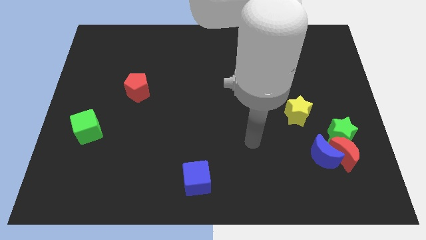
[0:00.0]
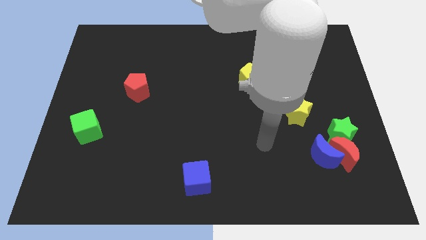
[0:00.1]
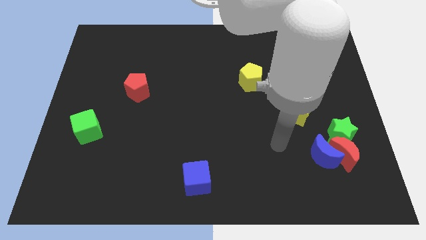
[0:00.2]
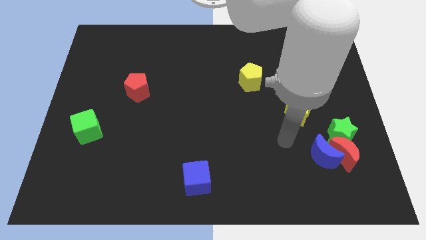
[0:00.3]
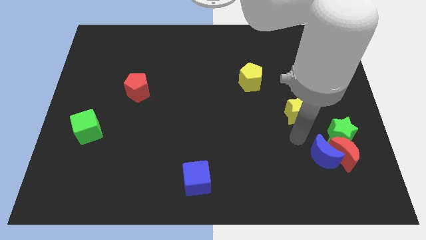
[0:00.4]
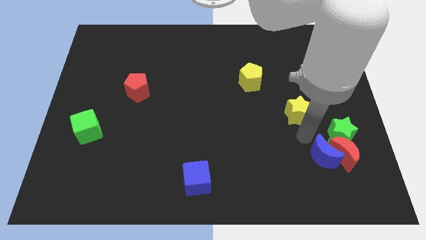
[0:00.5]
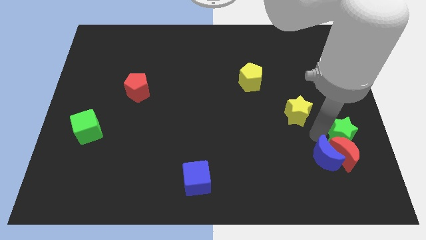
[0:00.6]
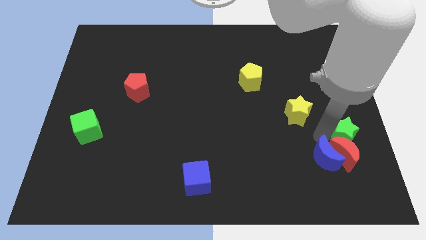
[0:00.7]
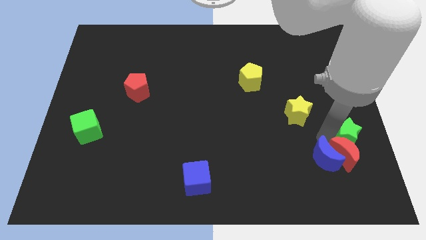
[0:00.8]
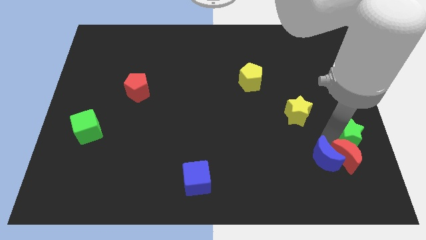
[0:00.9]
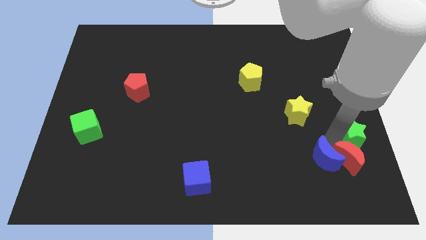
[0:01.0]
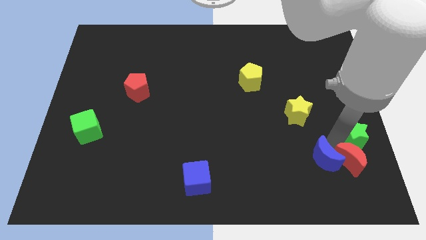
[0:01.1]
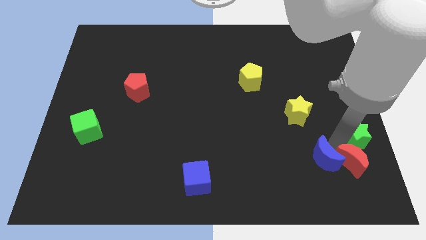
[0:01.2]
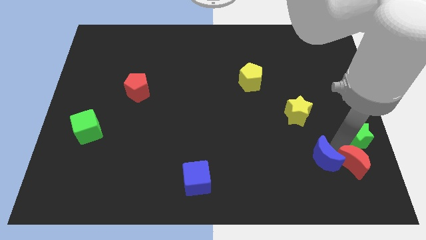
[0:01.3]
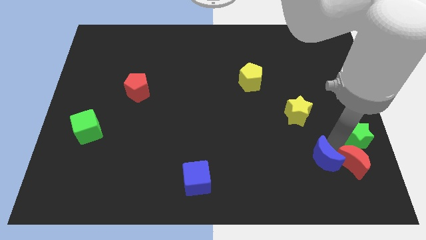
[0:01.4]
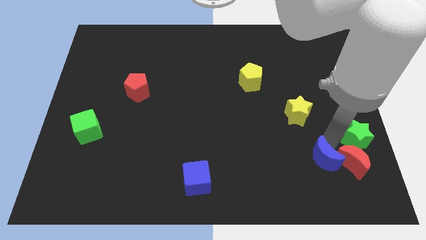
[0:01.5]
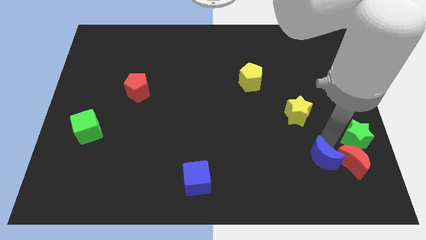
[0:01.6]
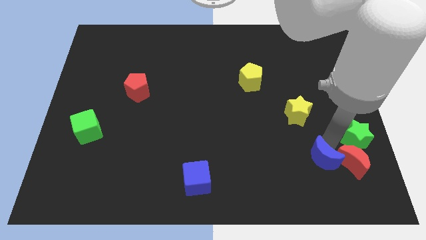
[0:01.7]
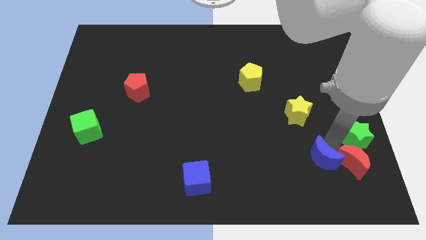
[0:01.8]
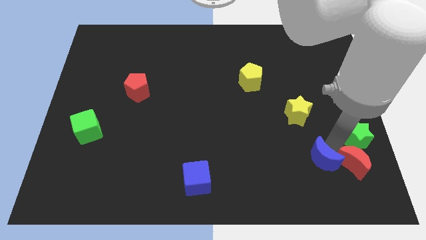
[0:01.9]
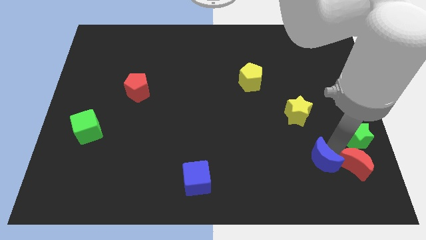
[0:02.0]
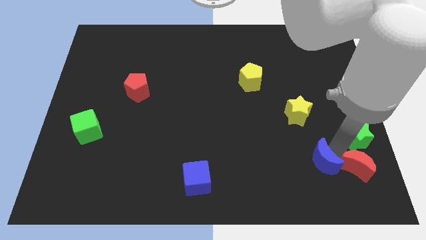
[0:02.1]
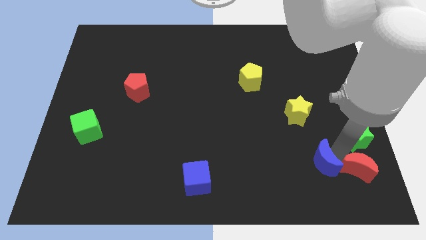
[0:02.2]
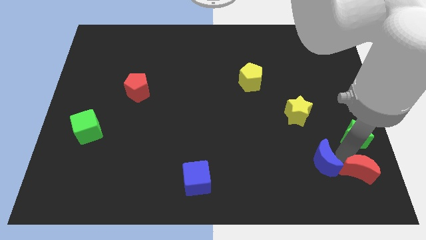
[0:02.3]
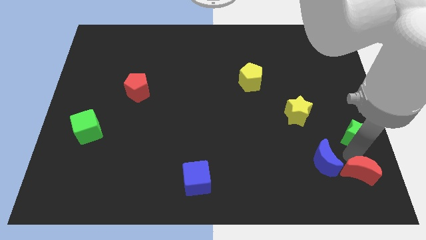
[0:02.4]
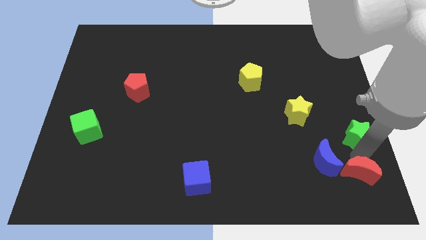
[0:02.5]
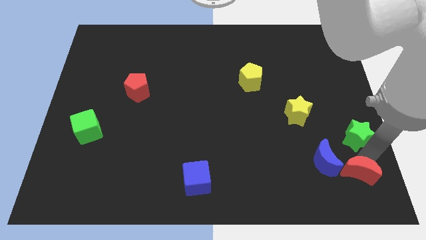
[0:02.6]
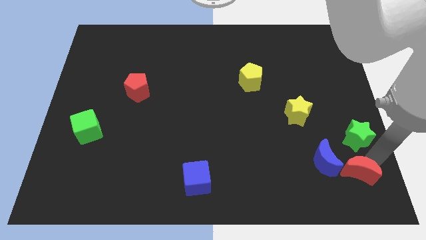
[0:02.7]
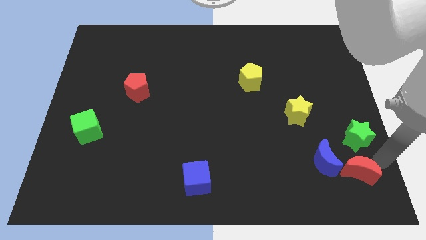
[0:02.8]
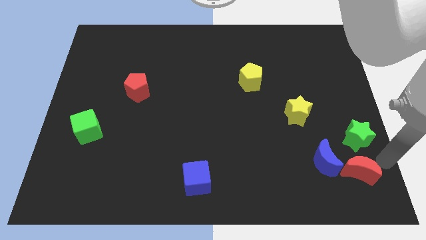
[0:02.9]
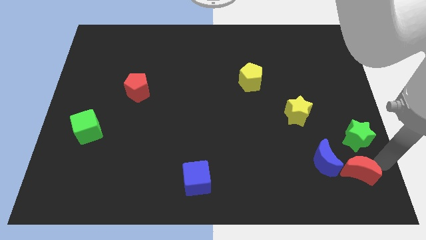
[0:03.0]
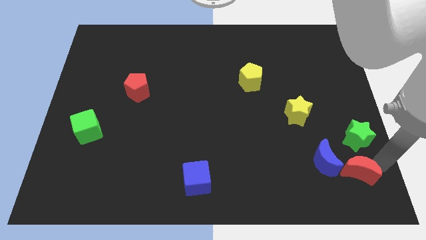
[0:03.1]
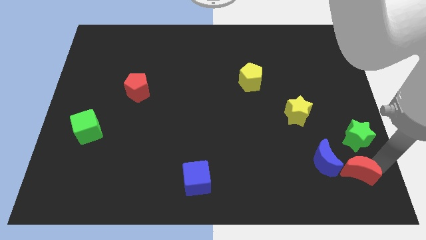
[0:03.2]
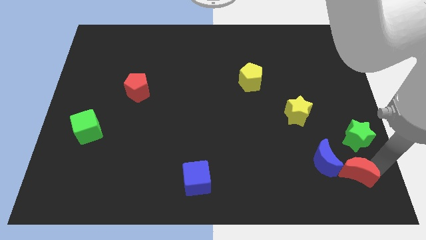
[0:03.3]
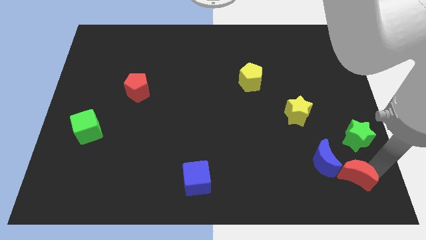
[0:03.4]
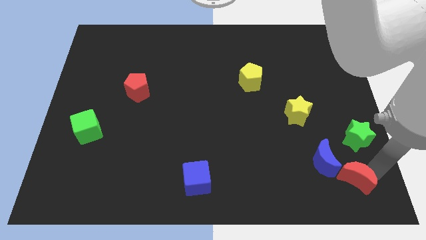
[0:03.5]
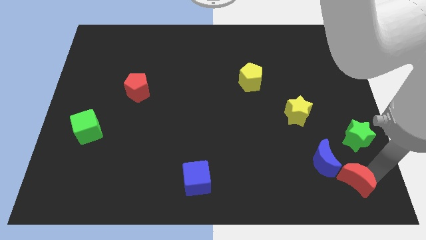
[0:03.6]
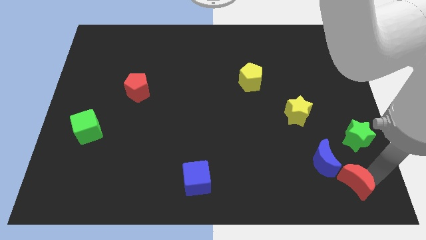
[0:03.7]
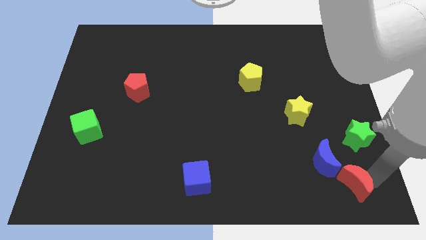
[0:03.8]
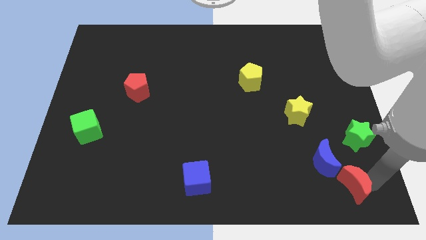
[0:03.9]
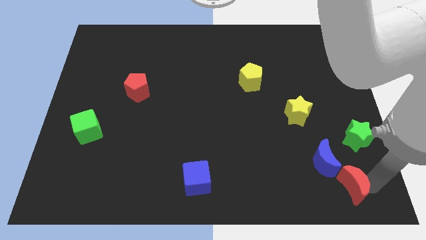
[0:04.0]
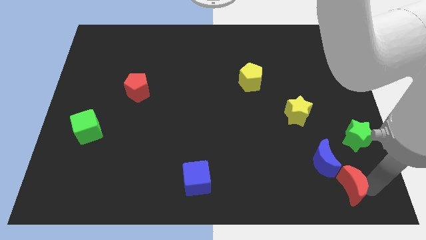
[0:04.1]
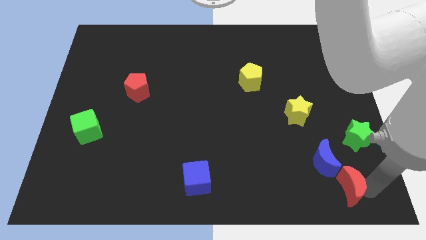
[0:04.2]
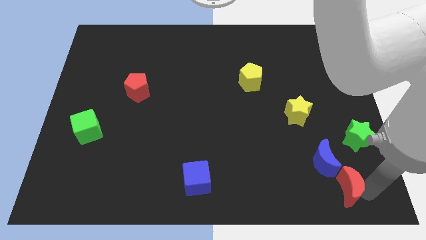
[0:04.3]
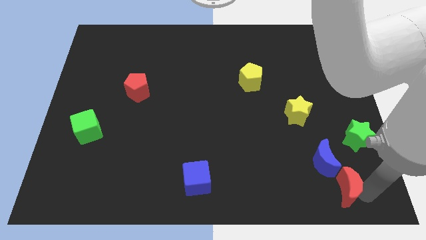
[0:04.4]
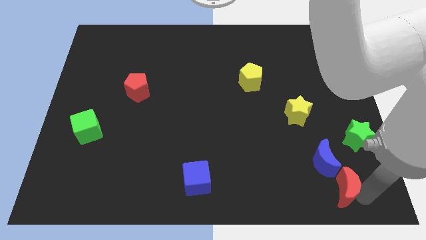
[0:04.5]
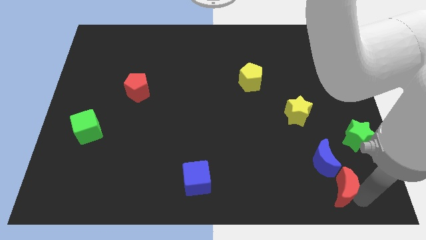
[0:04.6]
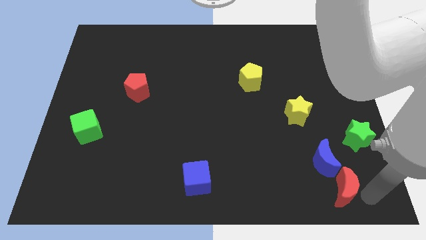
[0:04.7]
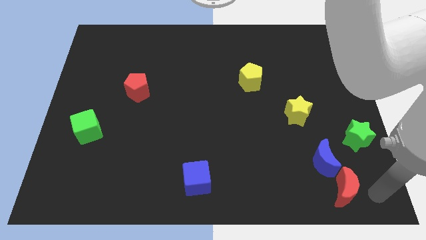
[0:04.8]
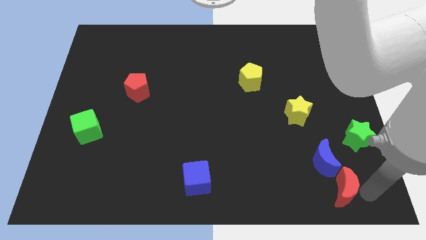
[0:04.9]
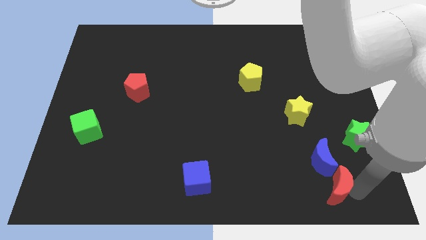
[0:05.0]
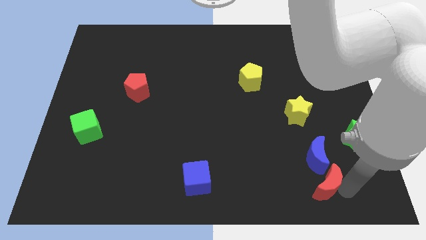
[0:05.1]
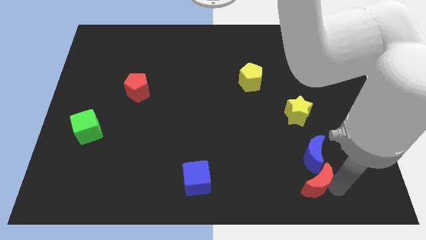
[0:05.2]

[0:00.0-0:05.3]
slide the red moon diagonally down and to the left of the blue moon

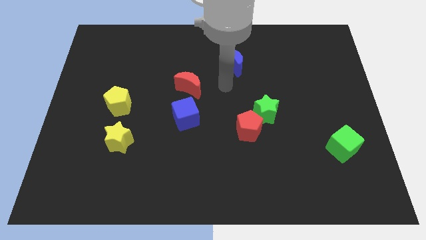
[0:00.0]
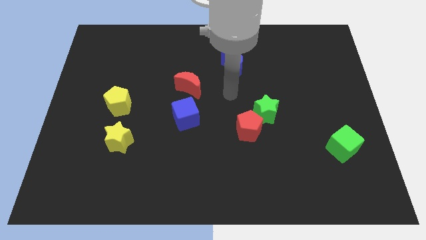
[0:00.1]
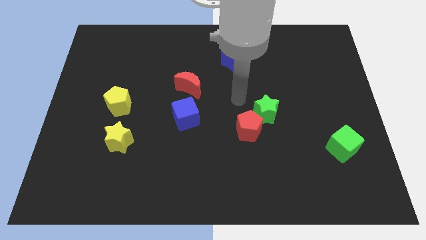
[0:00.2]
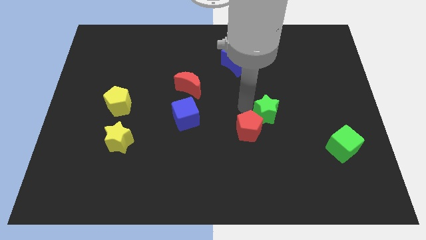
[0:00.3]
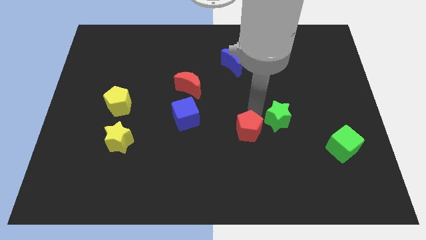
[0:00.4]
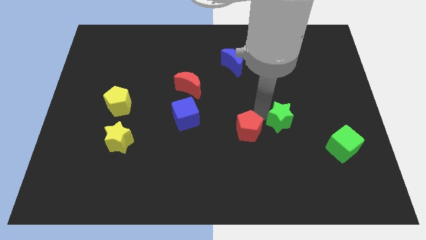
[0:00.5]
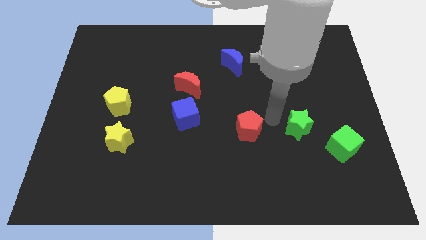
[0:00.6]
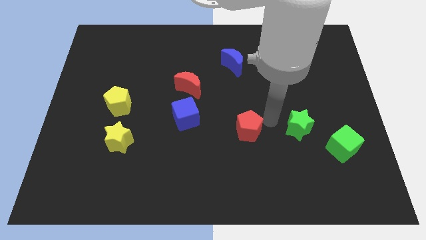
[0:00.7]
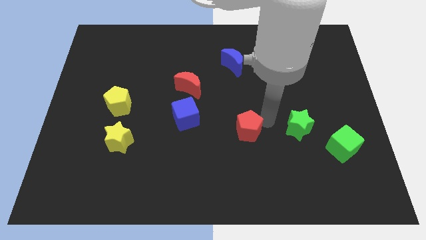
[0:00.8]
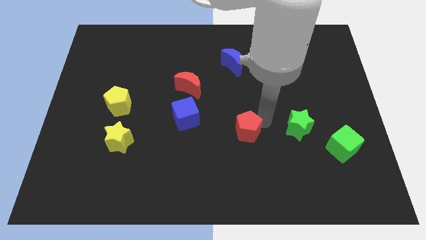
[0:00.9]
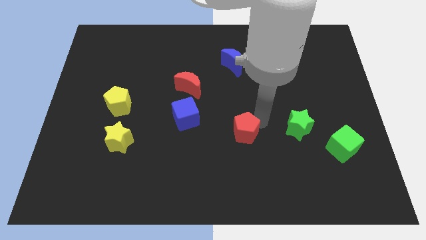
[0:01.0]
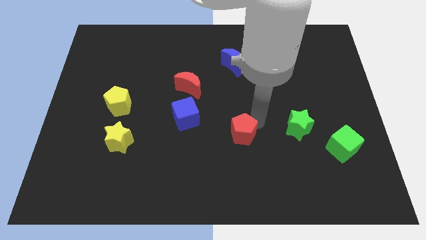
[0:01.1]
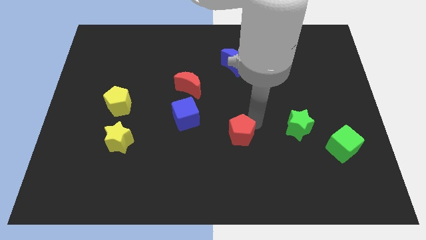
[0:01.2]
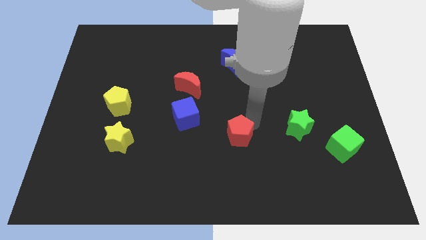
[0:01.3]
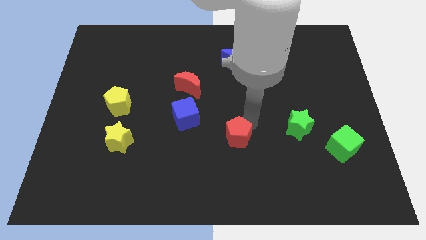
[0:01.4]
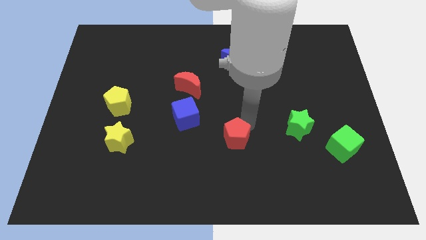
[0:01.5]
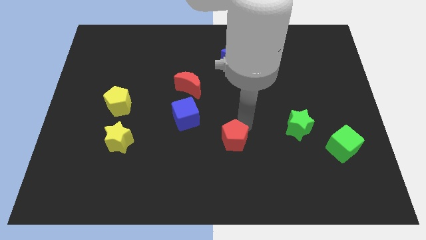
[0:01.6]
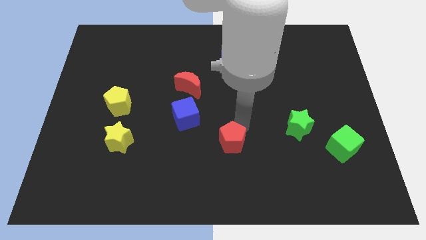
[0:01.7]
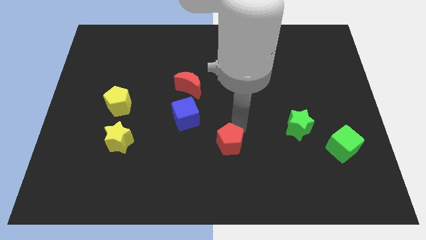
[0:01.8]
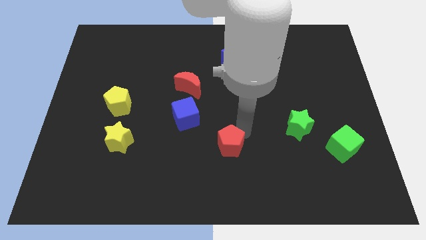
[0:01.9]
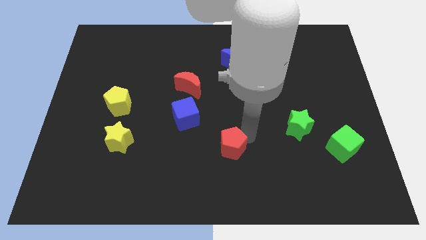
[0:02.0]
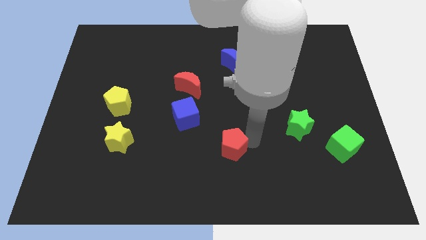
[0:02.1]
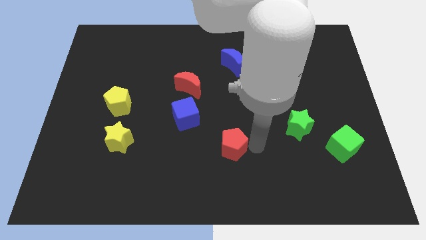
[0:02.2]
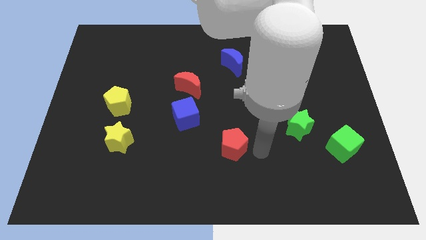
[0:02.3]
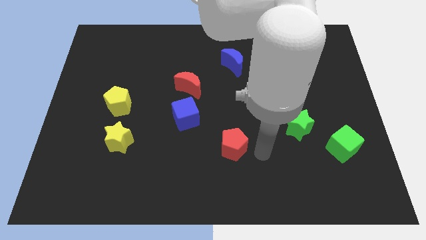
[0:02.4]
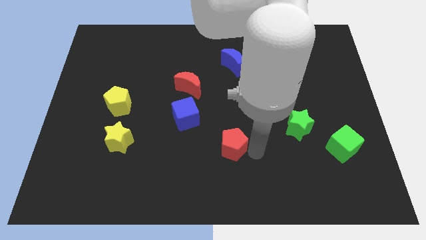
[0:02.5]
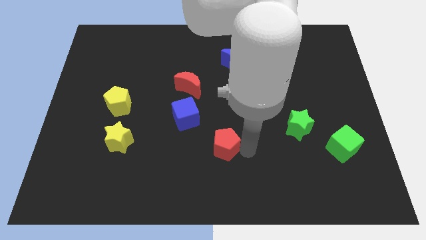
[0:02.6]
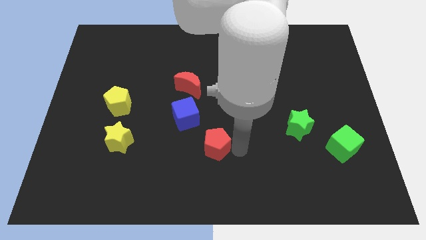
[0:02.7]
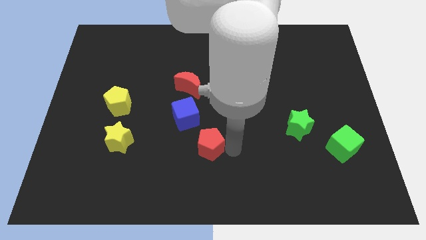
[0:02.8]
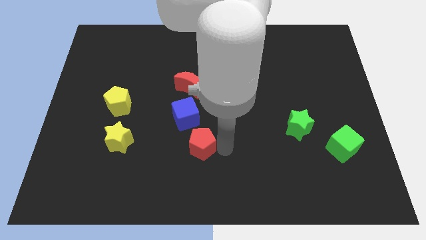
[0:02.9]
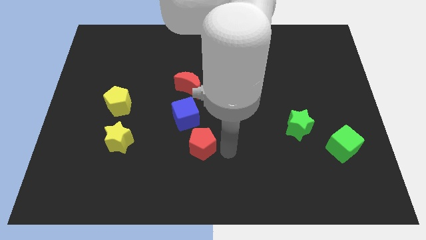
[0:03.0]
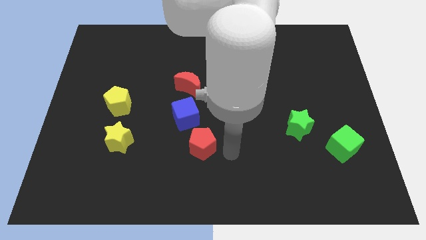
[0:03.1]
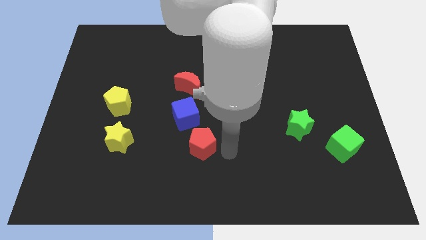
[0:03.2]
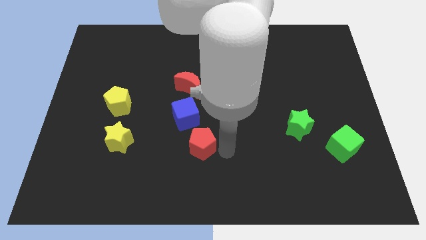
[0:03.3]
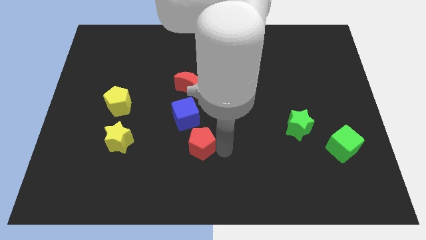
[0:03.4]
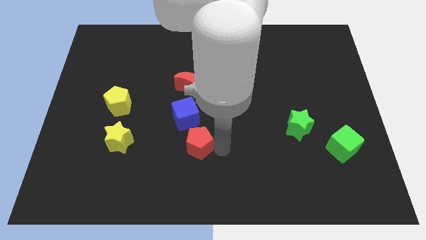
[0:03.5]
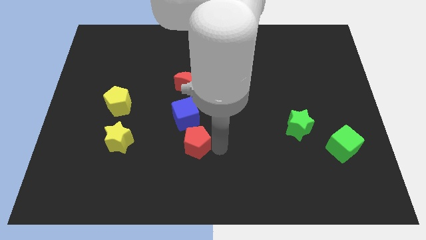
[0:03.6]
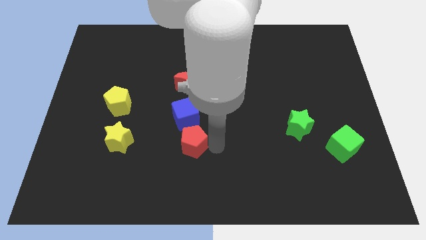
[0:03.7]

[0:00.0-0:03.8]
push the red pentagon to the right of the yellow star
